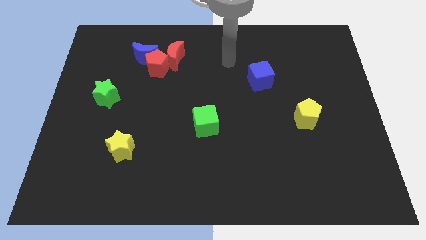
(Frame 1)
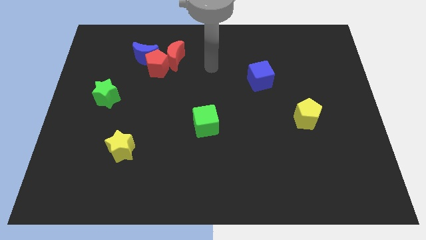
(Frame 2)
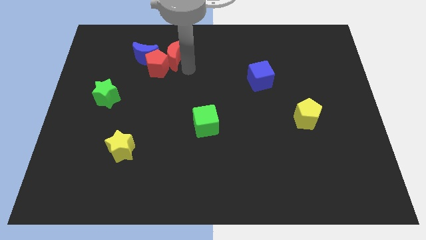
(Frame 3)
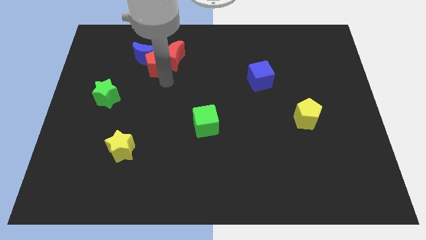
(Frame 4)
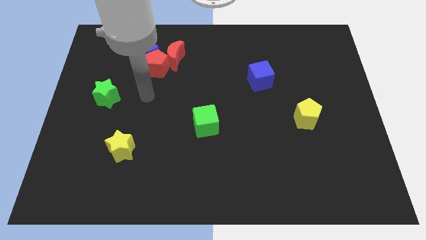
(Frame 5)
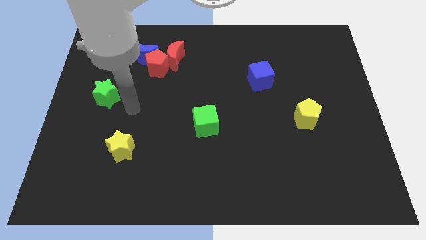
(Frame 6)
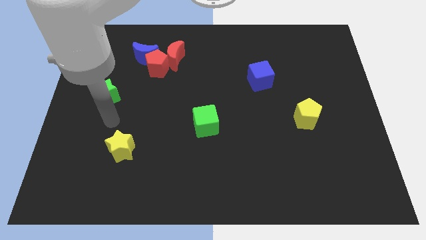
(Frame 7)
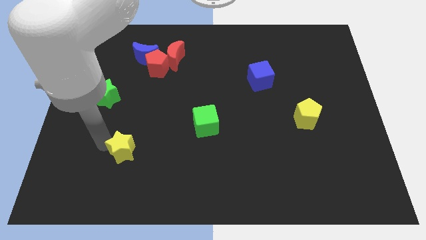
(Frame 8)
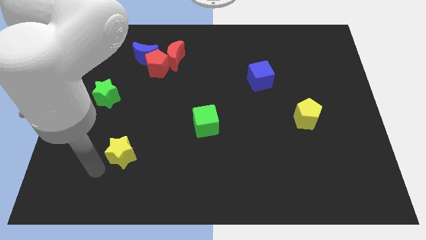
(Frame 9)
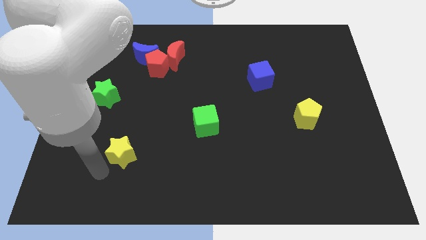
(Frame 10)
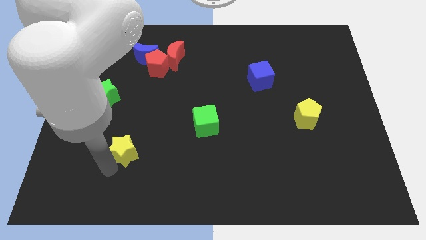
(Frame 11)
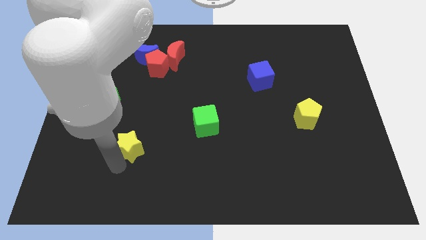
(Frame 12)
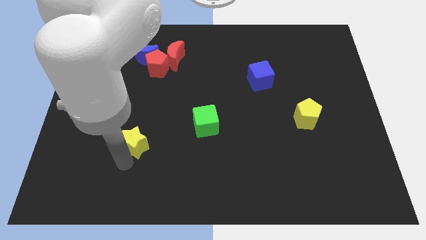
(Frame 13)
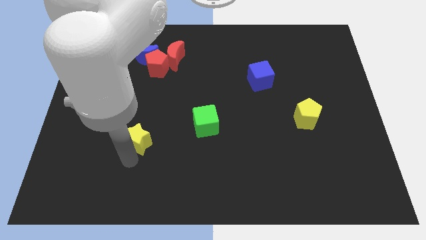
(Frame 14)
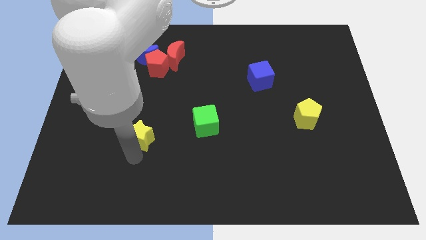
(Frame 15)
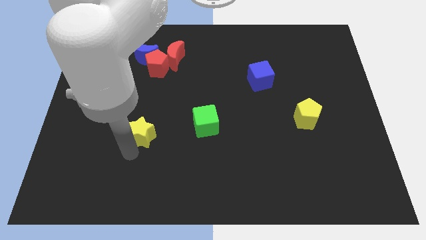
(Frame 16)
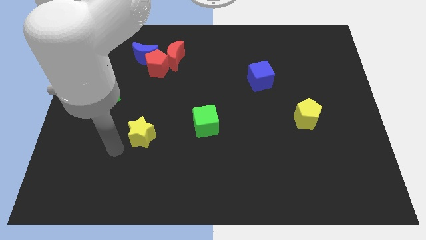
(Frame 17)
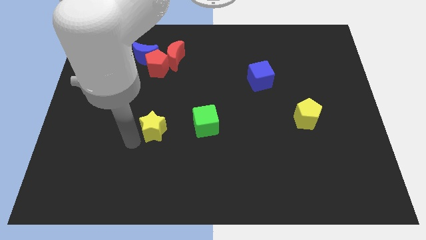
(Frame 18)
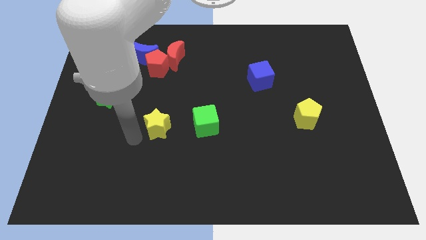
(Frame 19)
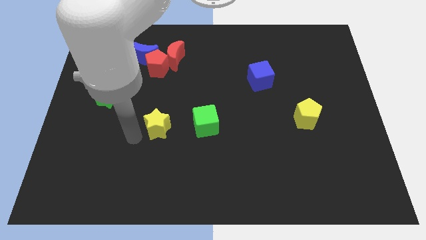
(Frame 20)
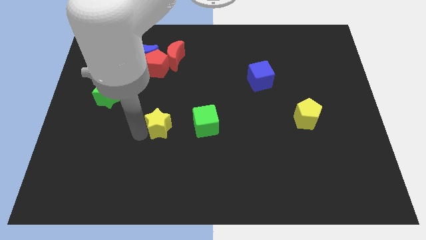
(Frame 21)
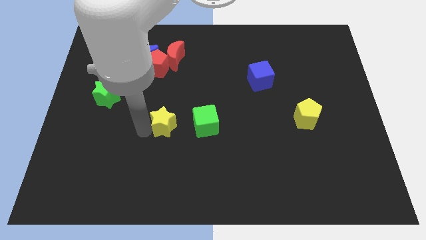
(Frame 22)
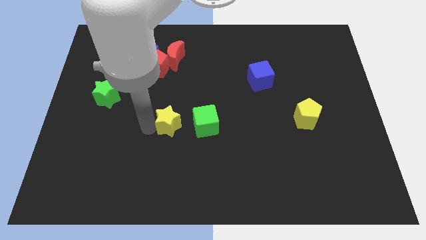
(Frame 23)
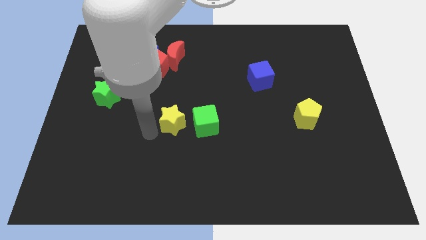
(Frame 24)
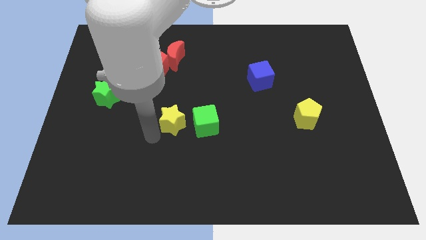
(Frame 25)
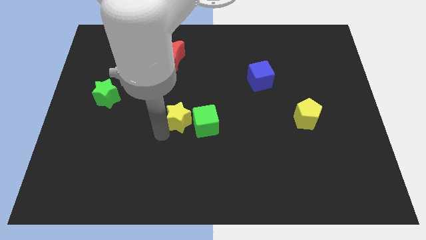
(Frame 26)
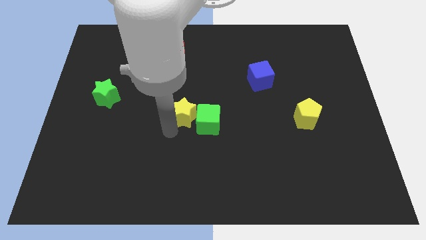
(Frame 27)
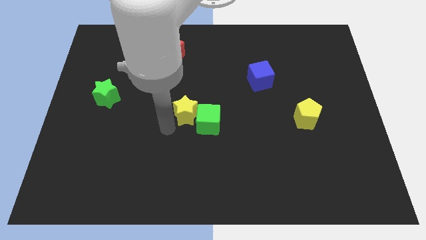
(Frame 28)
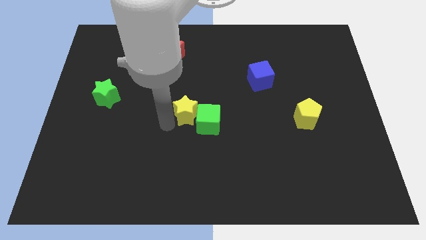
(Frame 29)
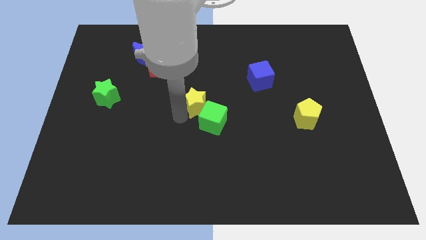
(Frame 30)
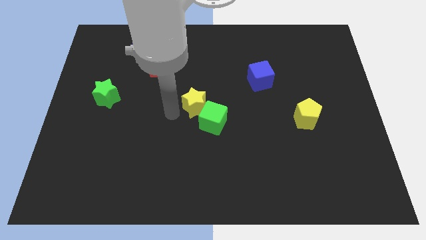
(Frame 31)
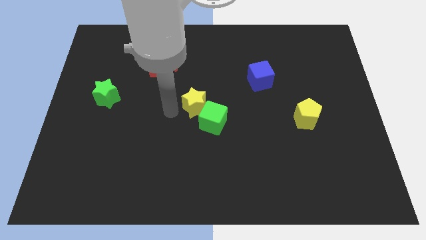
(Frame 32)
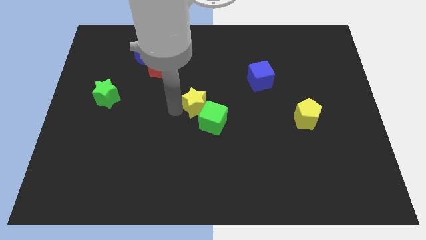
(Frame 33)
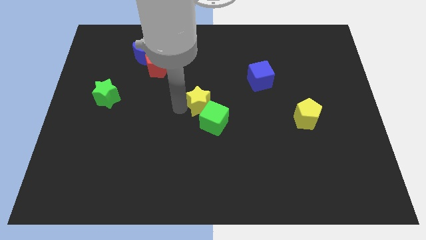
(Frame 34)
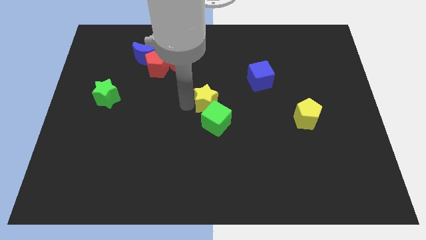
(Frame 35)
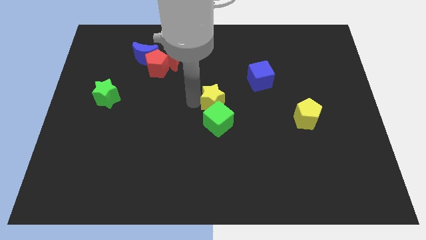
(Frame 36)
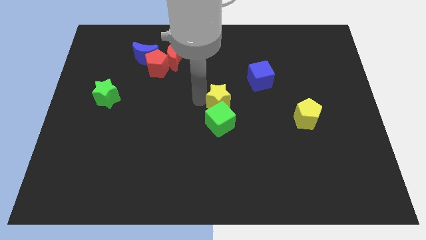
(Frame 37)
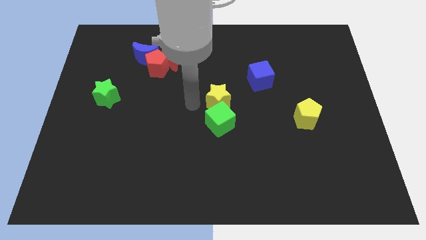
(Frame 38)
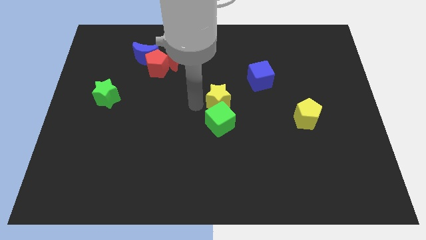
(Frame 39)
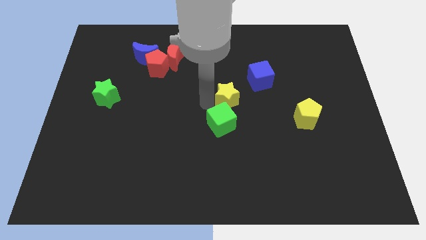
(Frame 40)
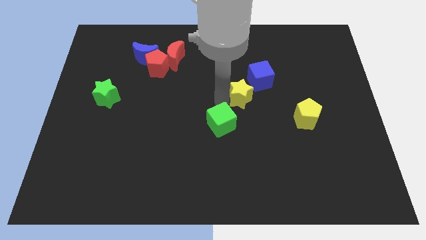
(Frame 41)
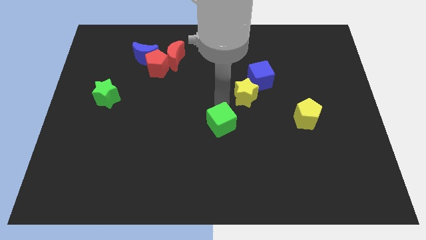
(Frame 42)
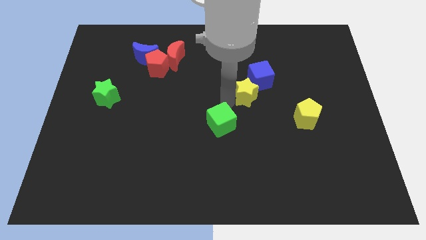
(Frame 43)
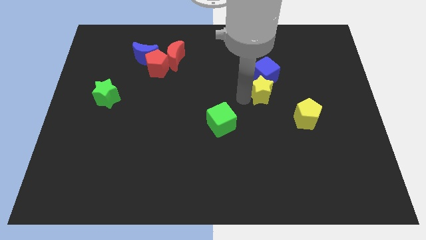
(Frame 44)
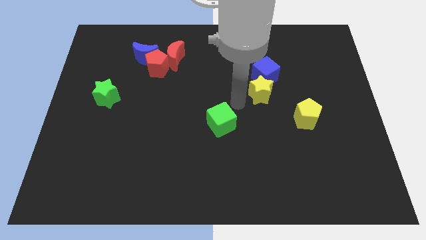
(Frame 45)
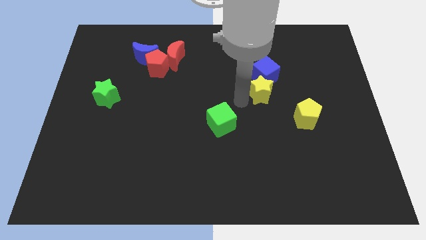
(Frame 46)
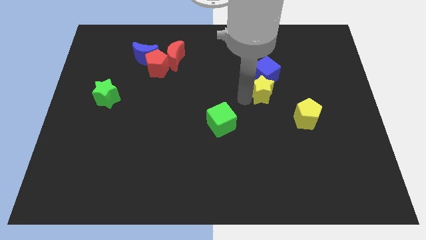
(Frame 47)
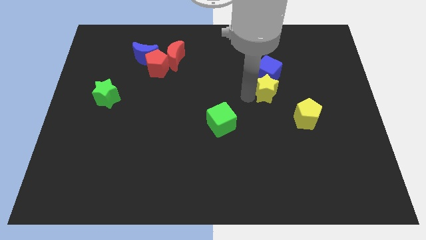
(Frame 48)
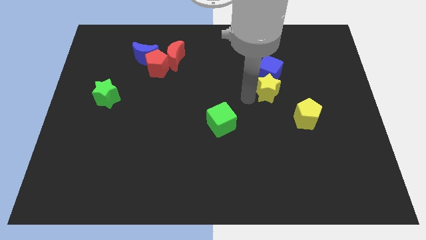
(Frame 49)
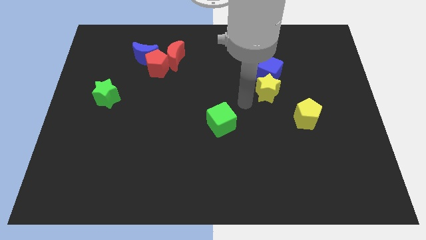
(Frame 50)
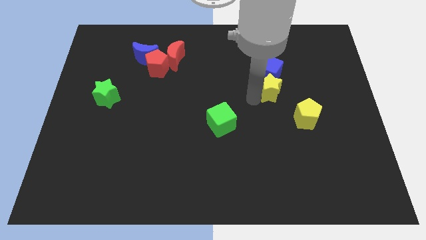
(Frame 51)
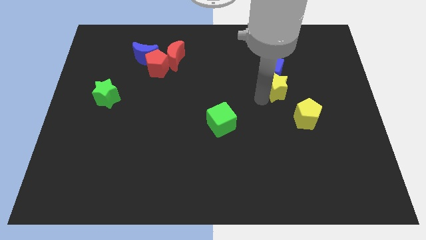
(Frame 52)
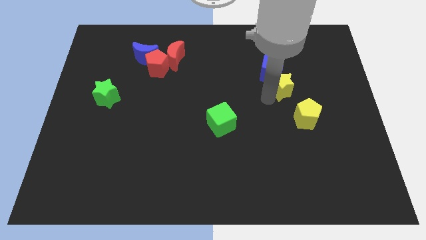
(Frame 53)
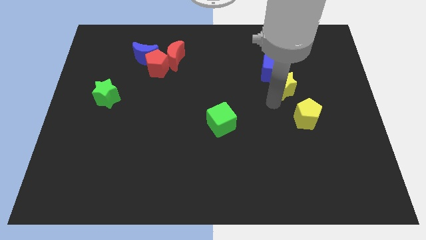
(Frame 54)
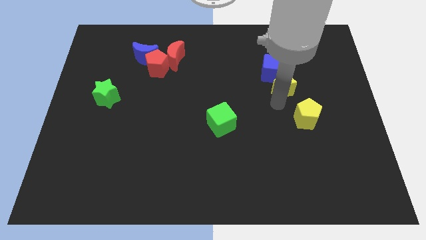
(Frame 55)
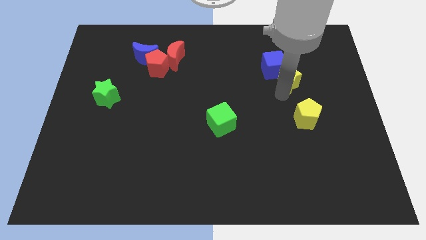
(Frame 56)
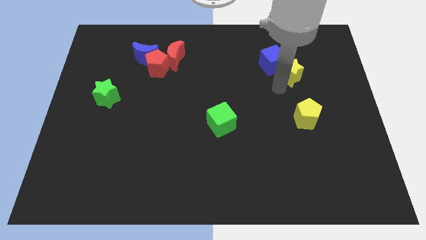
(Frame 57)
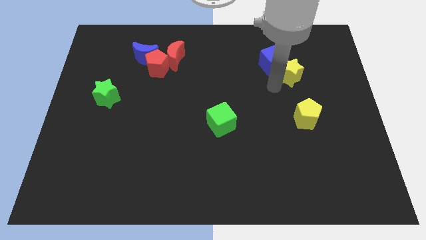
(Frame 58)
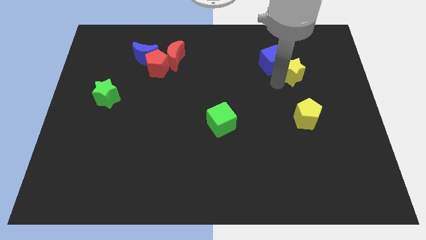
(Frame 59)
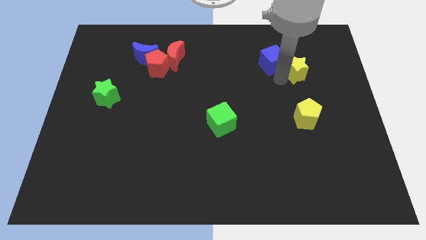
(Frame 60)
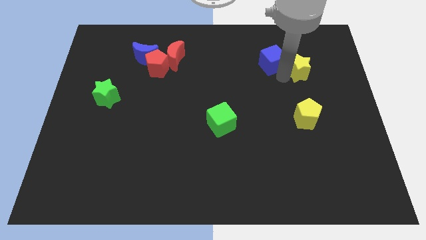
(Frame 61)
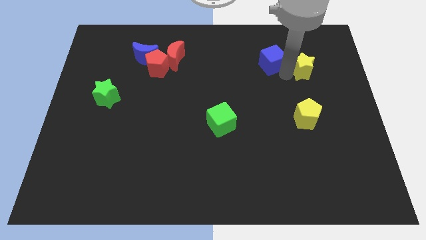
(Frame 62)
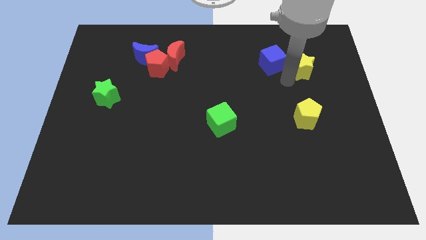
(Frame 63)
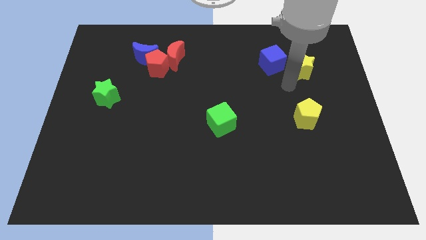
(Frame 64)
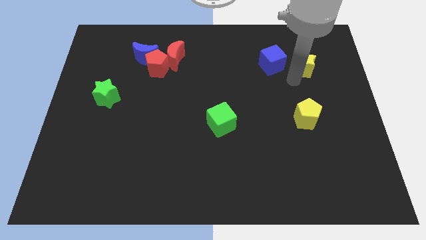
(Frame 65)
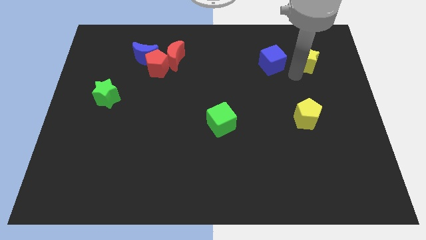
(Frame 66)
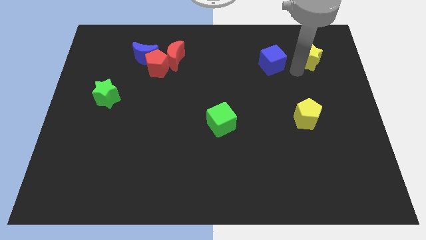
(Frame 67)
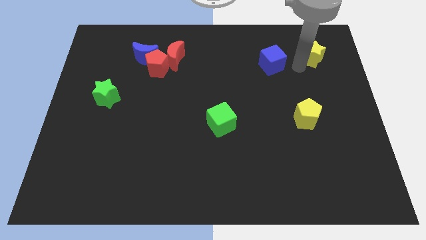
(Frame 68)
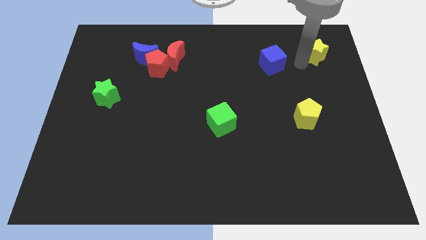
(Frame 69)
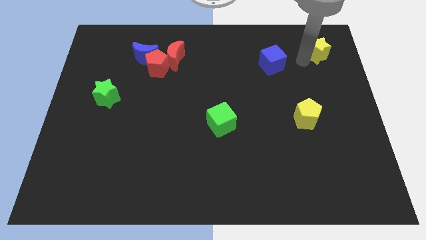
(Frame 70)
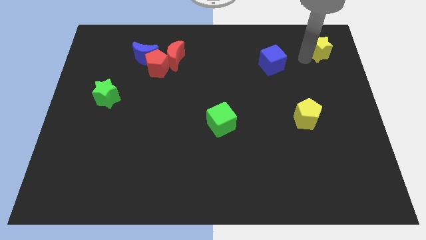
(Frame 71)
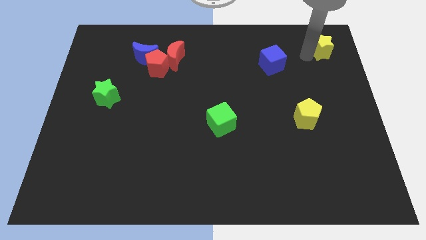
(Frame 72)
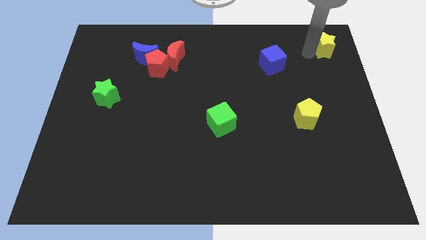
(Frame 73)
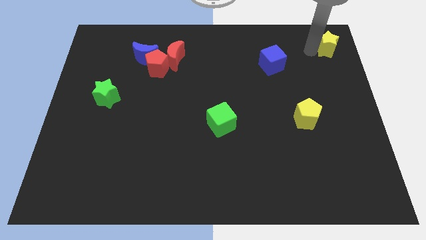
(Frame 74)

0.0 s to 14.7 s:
move the yellow star to the top right corner
